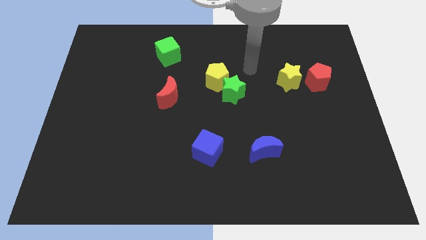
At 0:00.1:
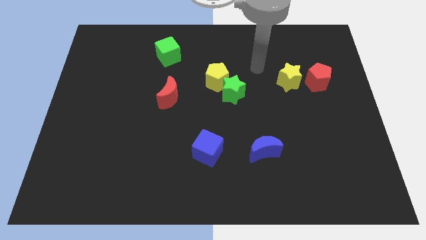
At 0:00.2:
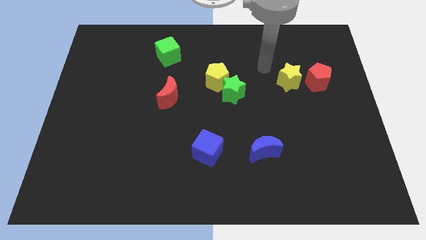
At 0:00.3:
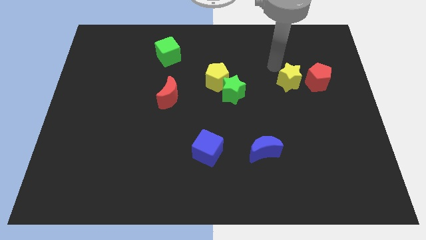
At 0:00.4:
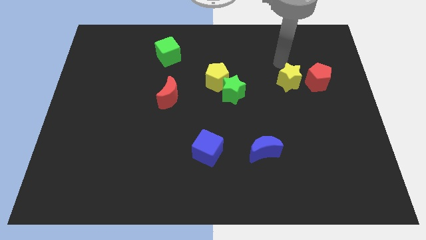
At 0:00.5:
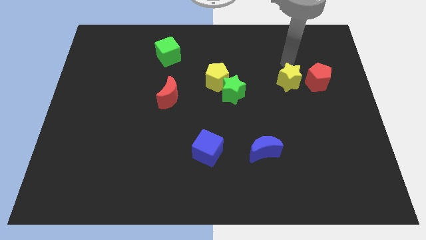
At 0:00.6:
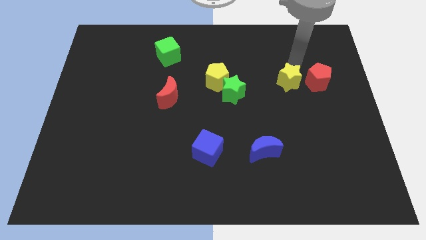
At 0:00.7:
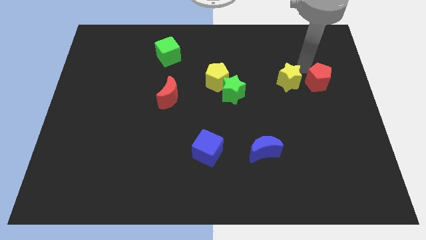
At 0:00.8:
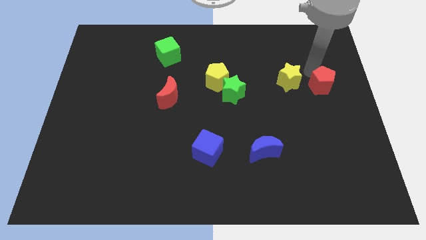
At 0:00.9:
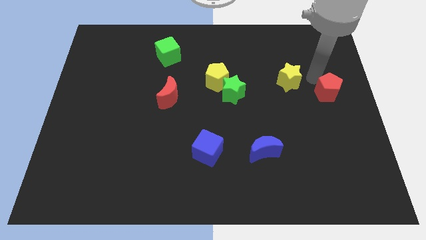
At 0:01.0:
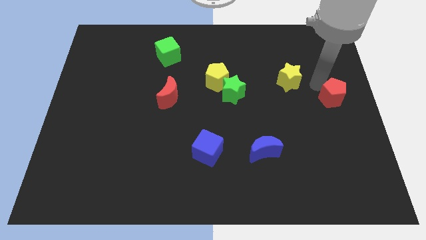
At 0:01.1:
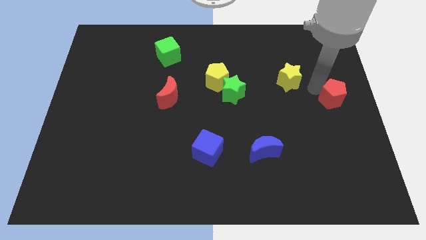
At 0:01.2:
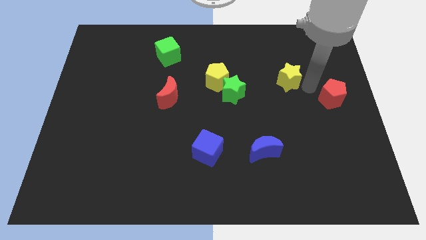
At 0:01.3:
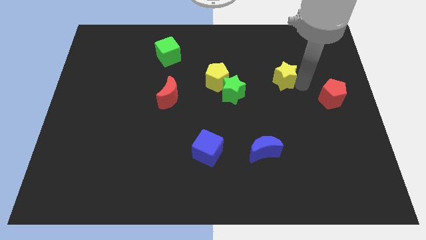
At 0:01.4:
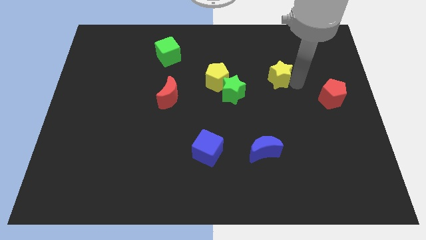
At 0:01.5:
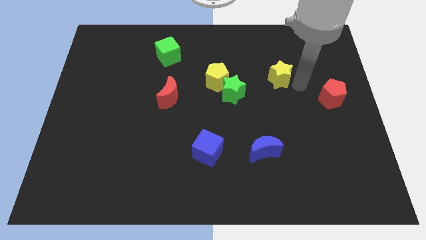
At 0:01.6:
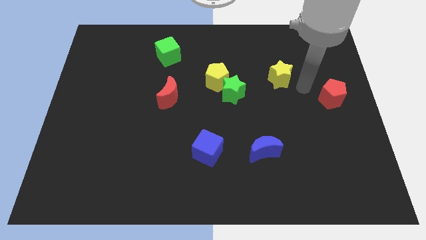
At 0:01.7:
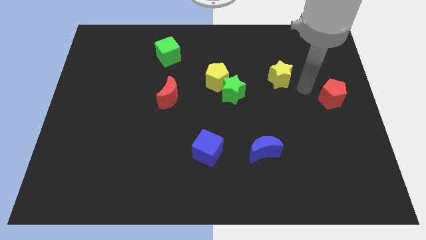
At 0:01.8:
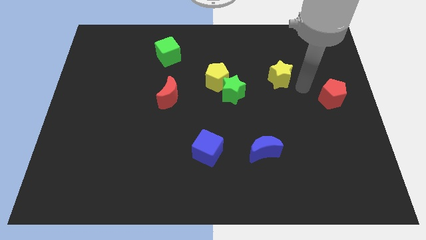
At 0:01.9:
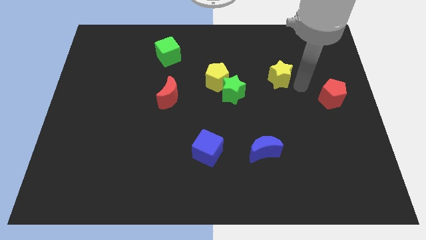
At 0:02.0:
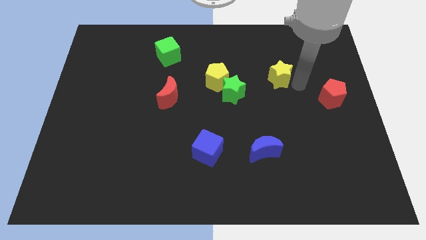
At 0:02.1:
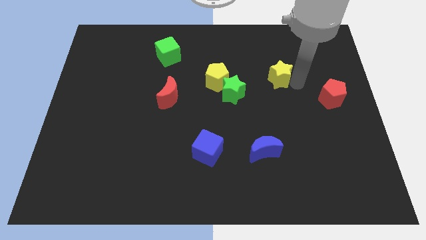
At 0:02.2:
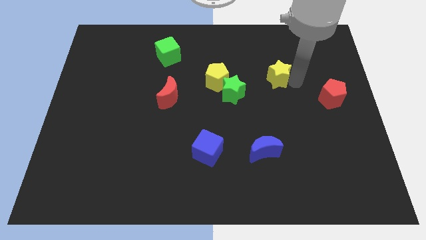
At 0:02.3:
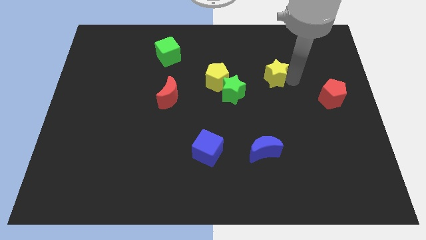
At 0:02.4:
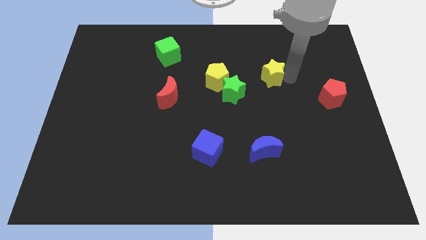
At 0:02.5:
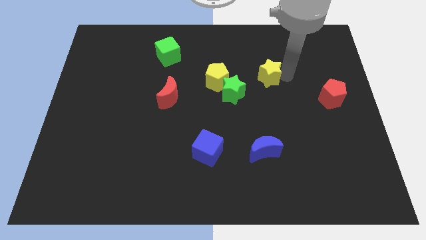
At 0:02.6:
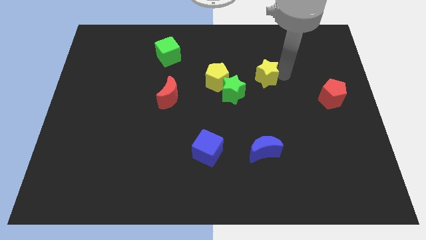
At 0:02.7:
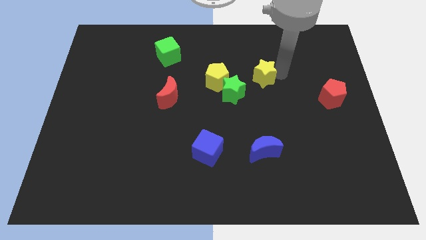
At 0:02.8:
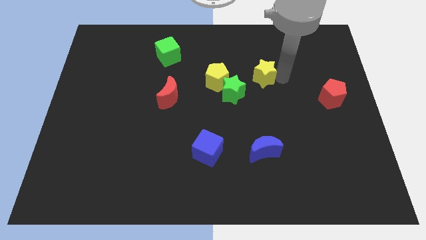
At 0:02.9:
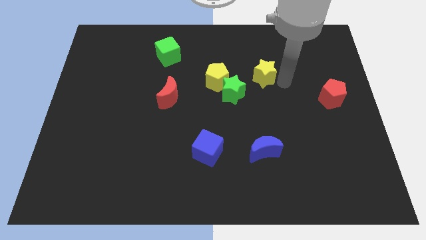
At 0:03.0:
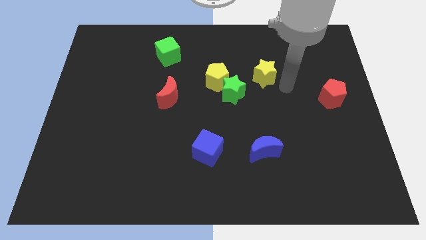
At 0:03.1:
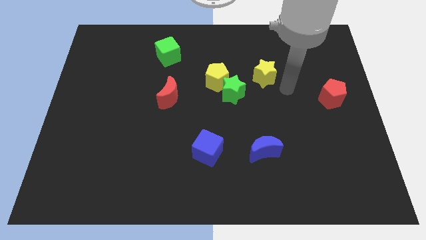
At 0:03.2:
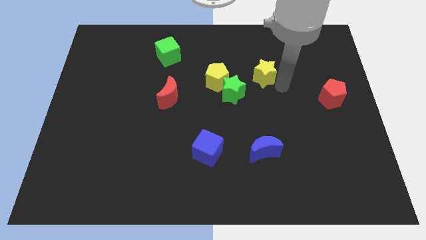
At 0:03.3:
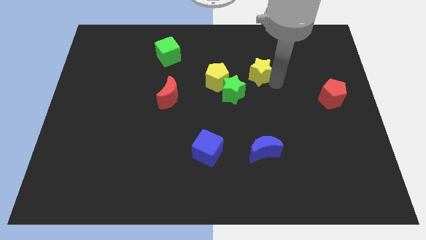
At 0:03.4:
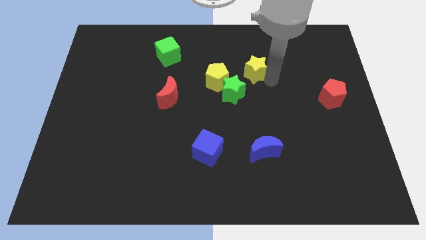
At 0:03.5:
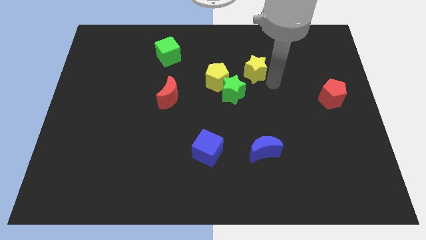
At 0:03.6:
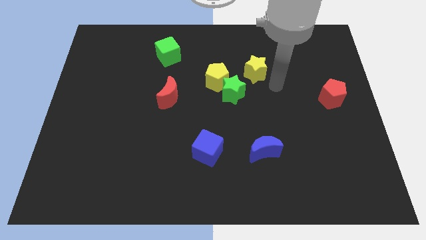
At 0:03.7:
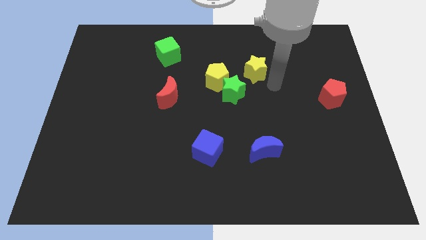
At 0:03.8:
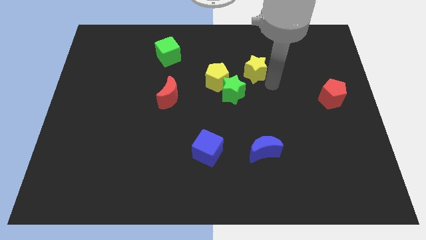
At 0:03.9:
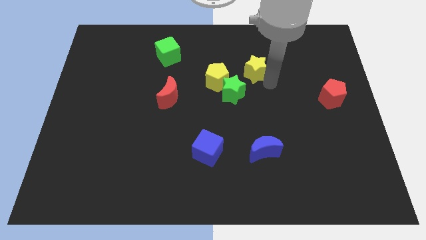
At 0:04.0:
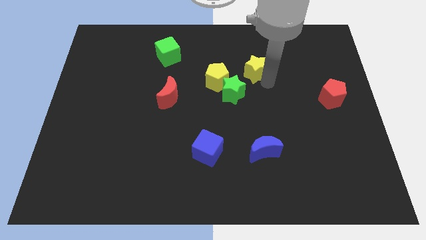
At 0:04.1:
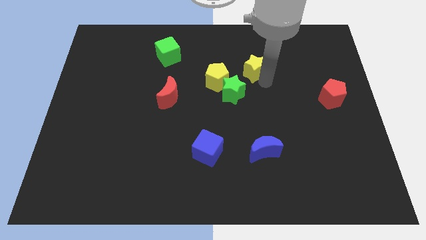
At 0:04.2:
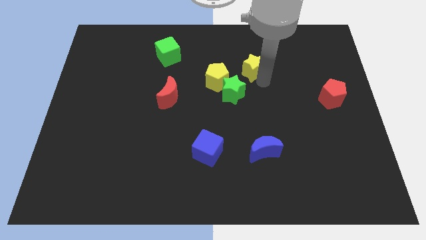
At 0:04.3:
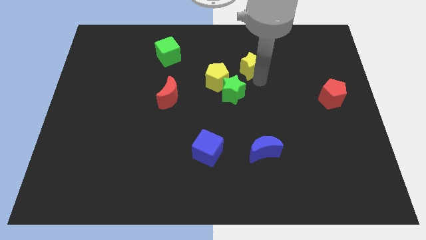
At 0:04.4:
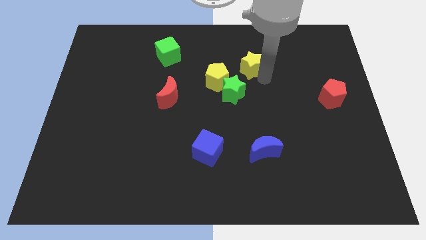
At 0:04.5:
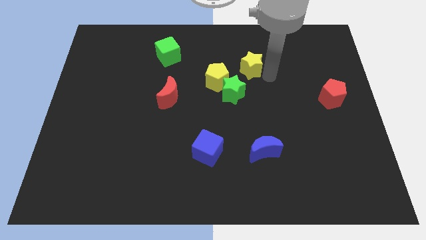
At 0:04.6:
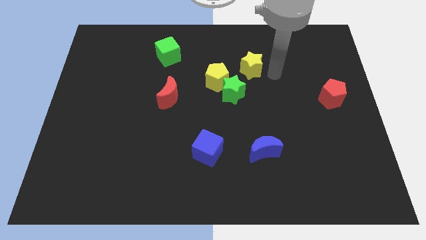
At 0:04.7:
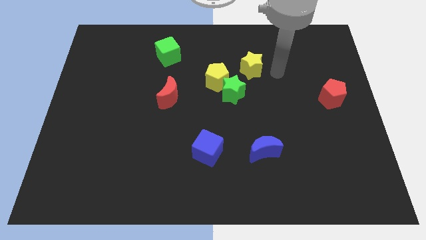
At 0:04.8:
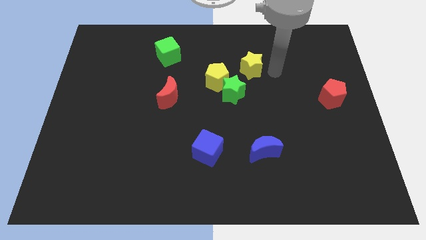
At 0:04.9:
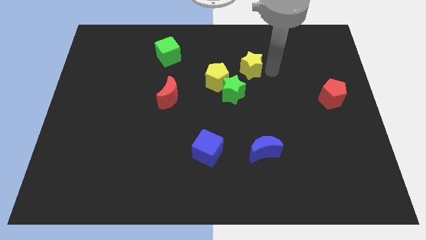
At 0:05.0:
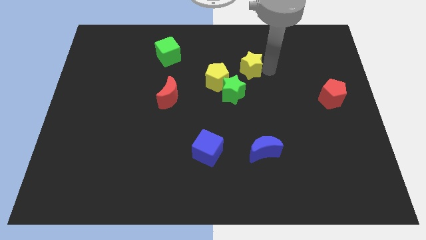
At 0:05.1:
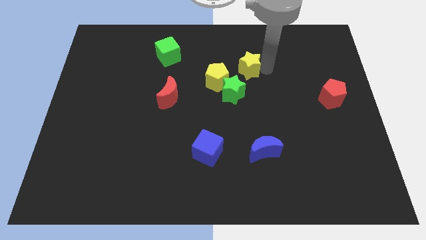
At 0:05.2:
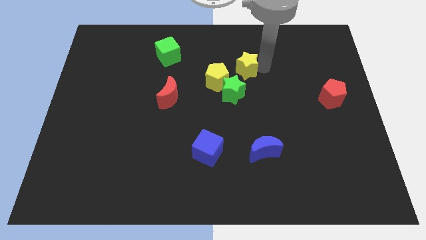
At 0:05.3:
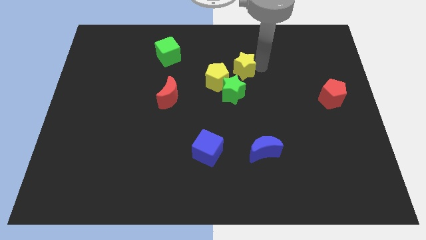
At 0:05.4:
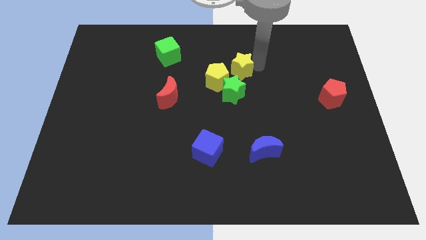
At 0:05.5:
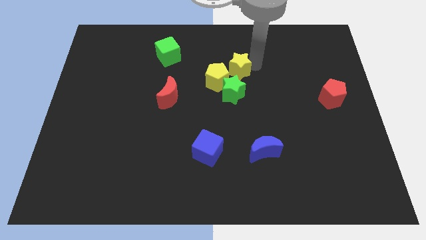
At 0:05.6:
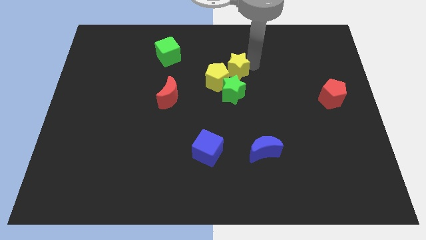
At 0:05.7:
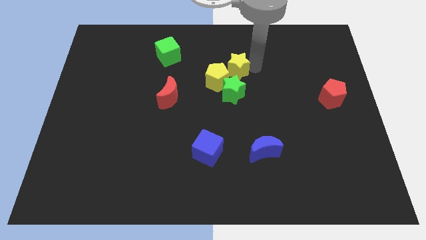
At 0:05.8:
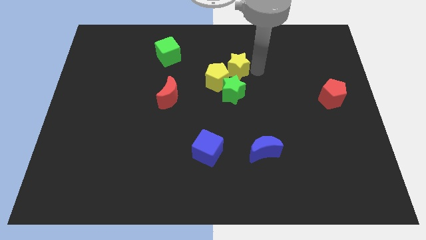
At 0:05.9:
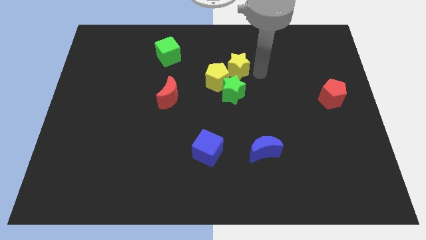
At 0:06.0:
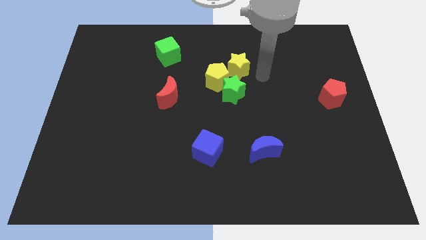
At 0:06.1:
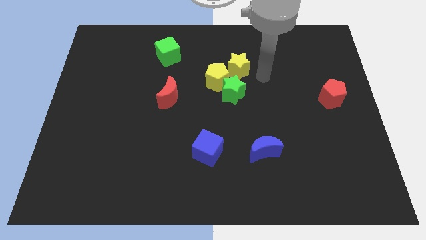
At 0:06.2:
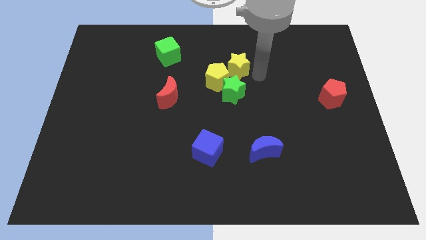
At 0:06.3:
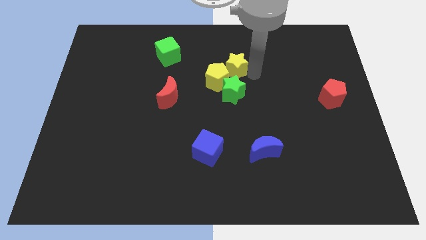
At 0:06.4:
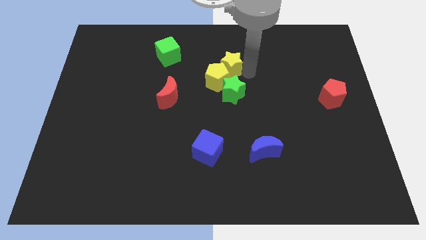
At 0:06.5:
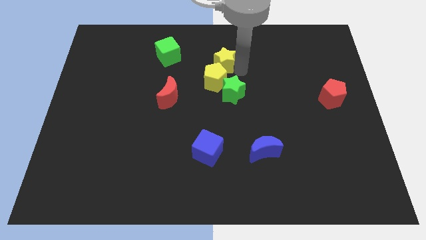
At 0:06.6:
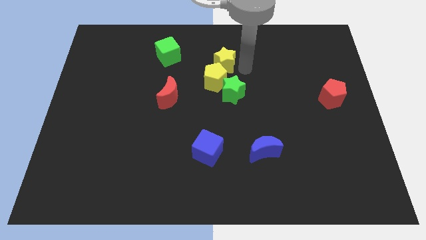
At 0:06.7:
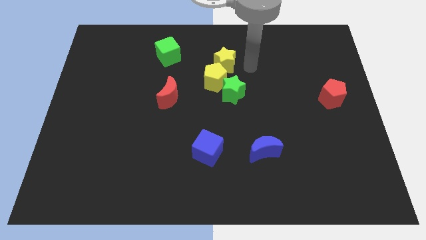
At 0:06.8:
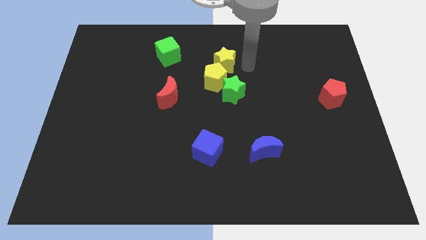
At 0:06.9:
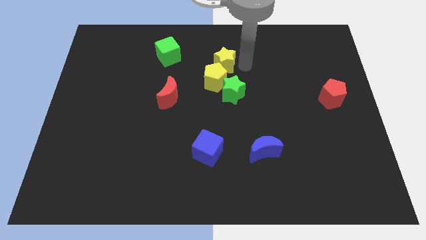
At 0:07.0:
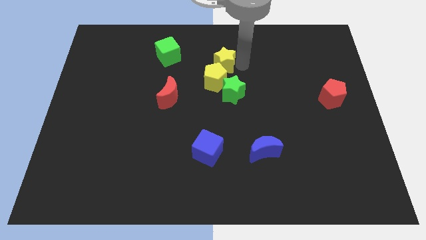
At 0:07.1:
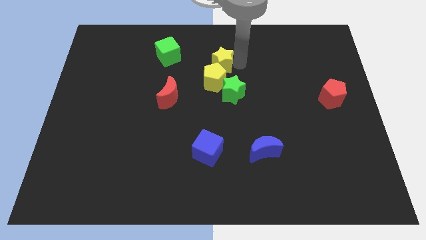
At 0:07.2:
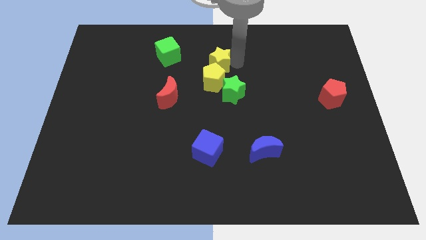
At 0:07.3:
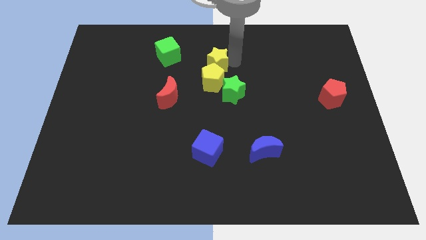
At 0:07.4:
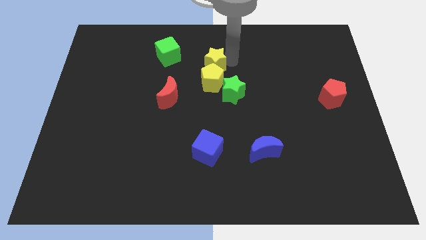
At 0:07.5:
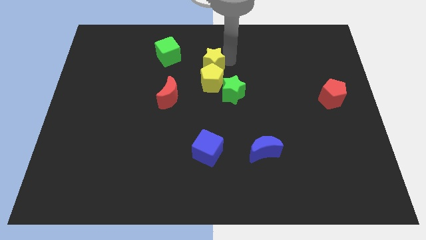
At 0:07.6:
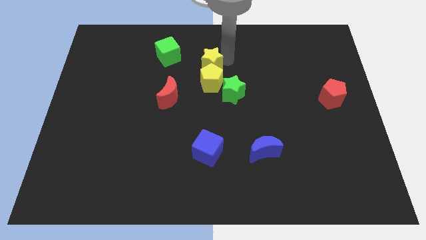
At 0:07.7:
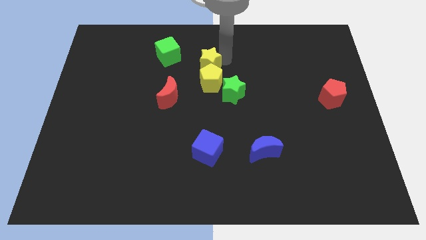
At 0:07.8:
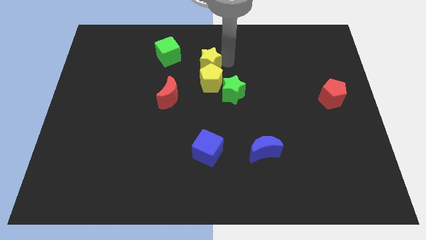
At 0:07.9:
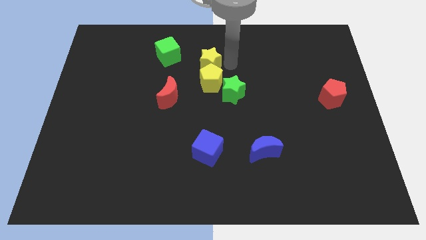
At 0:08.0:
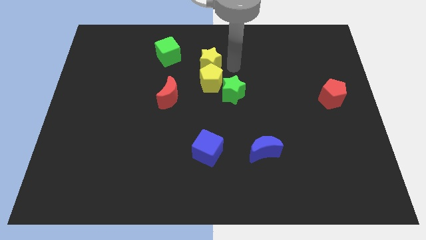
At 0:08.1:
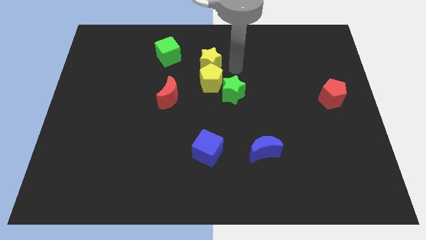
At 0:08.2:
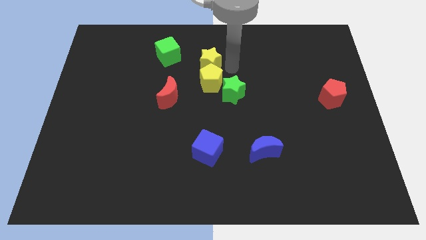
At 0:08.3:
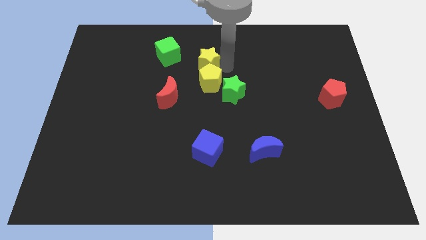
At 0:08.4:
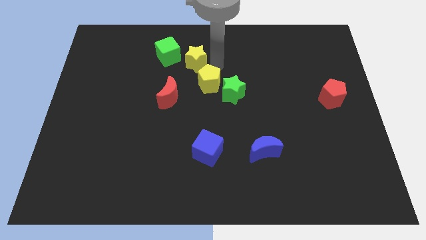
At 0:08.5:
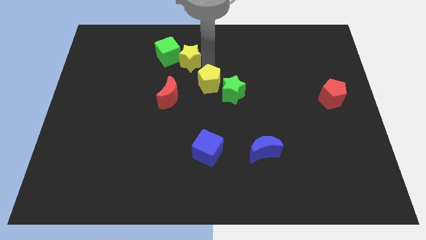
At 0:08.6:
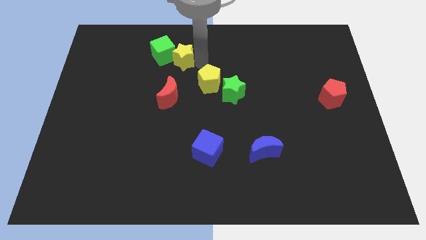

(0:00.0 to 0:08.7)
slide the yellow star next to the green cube
